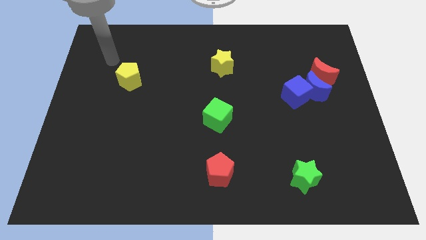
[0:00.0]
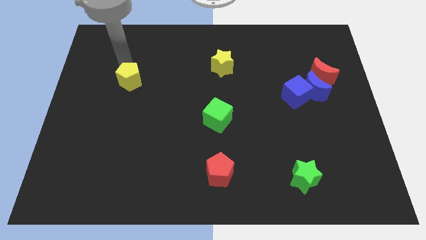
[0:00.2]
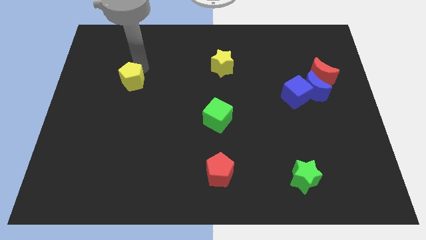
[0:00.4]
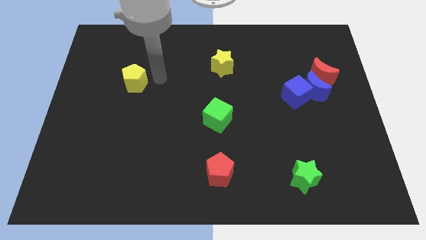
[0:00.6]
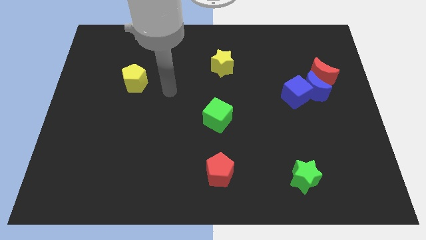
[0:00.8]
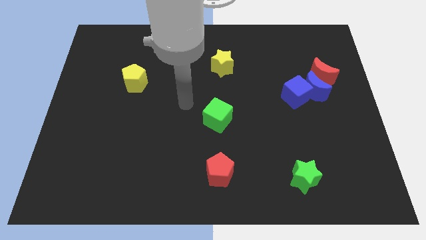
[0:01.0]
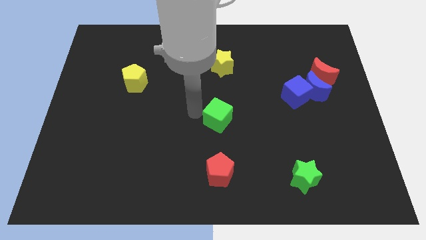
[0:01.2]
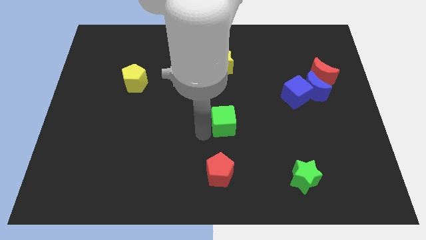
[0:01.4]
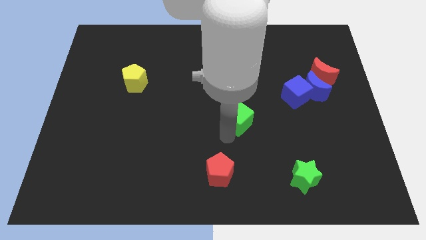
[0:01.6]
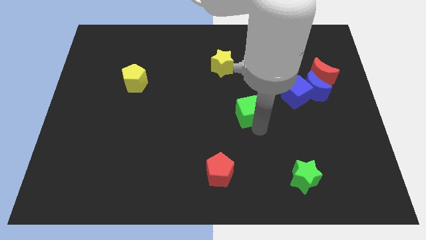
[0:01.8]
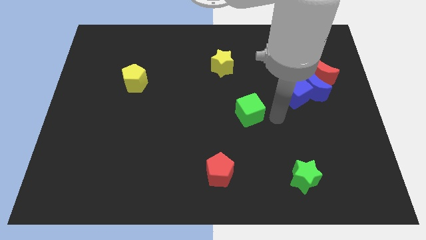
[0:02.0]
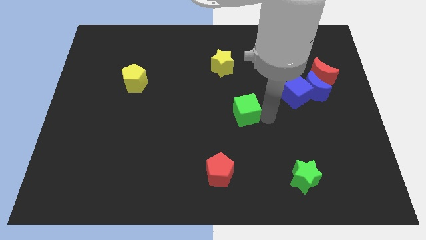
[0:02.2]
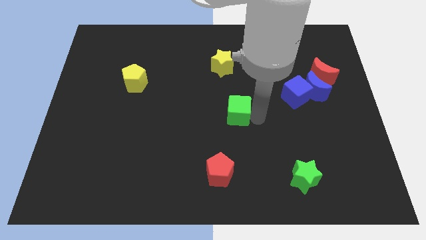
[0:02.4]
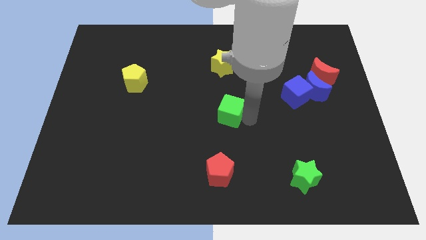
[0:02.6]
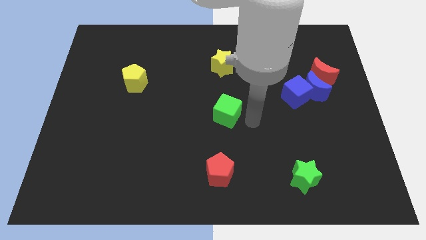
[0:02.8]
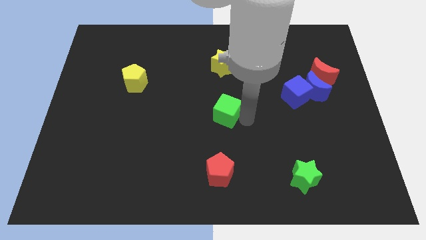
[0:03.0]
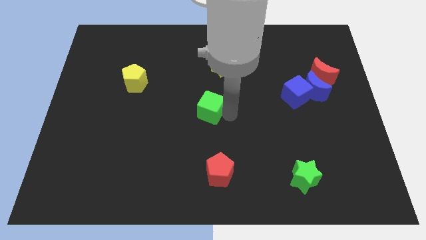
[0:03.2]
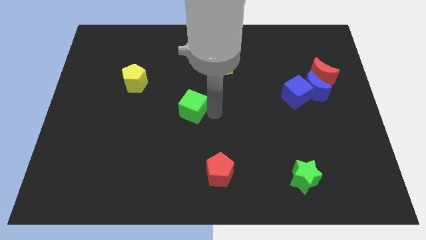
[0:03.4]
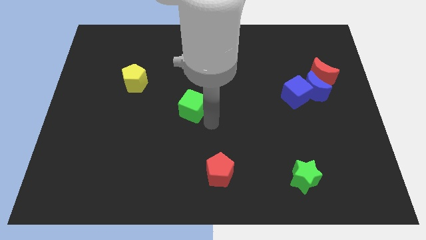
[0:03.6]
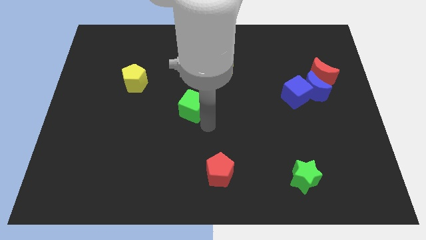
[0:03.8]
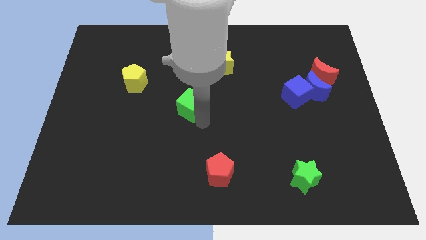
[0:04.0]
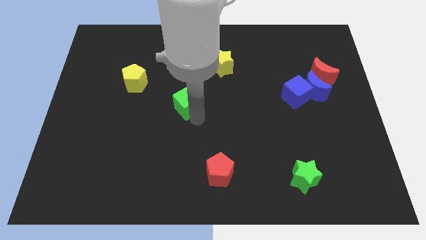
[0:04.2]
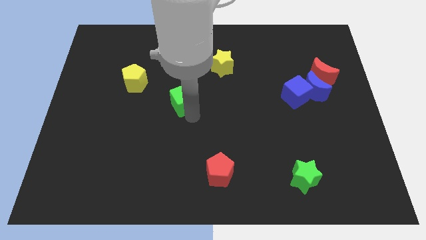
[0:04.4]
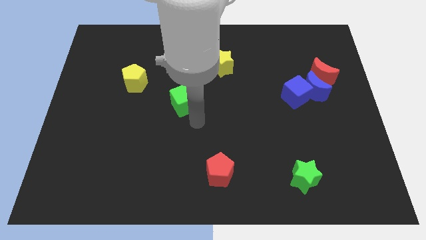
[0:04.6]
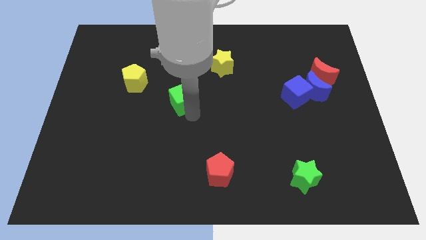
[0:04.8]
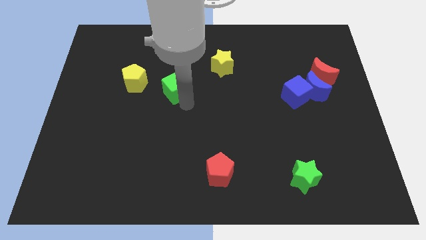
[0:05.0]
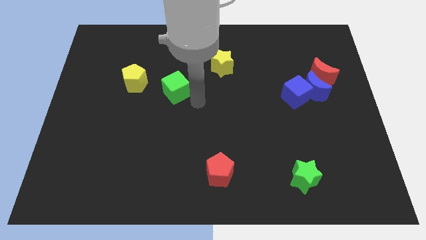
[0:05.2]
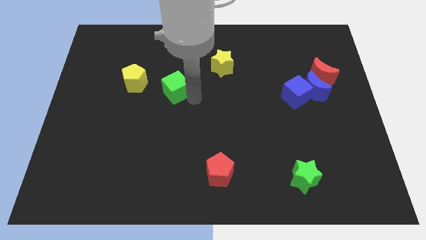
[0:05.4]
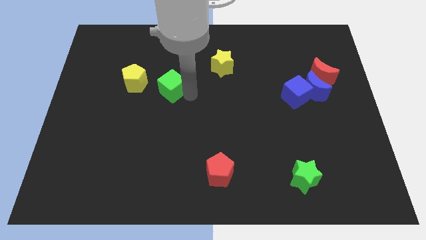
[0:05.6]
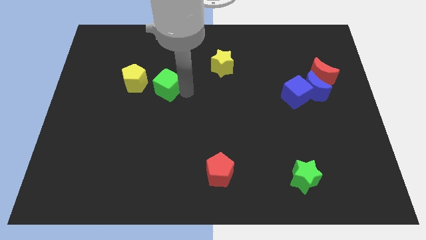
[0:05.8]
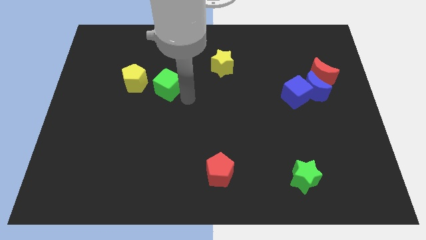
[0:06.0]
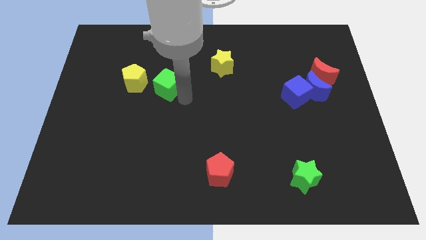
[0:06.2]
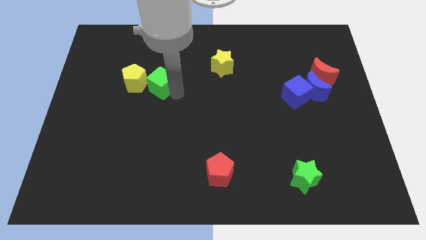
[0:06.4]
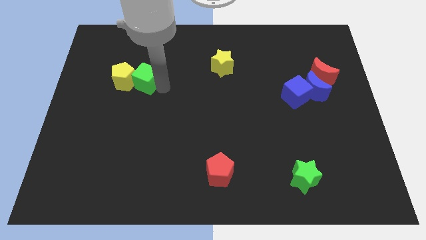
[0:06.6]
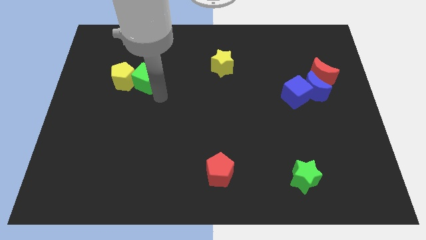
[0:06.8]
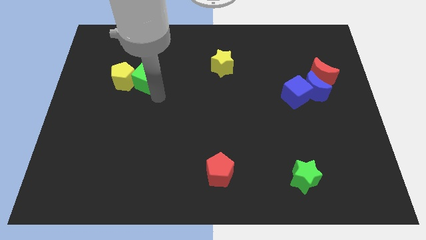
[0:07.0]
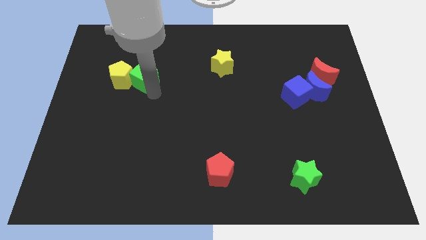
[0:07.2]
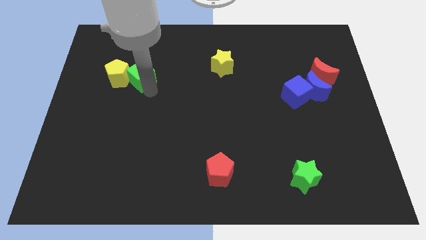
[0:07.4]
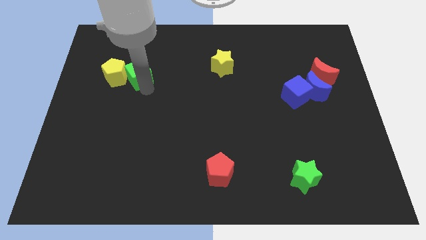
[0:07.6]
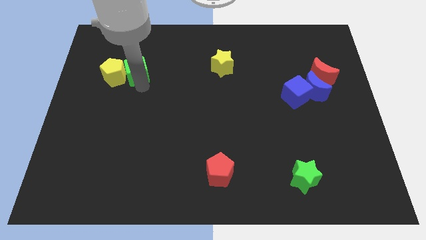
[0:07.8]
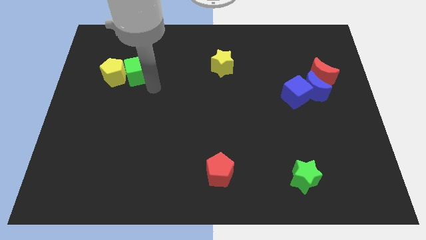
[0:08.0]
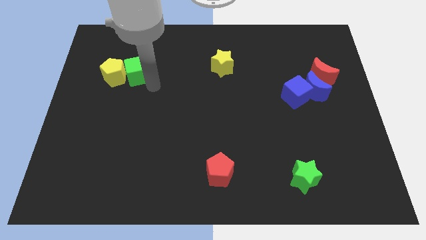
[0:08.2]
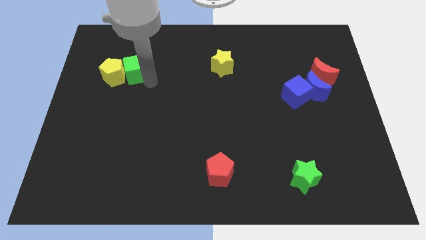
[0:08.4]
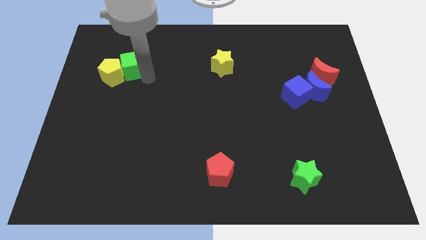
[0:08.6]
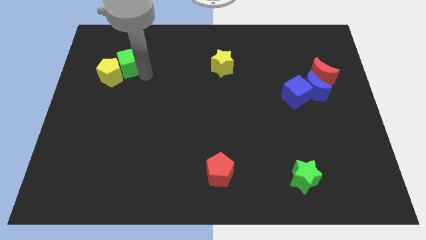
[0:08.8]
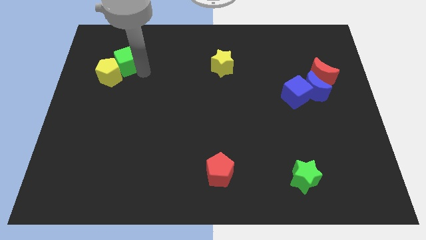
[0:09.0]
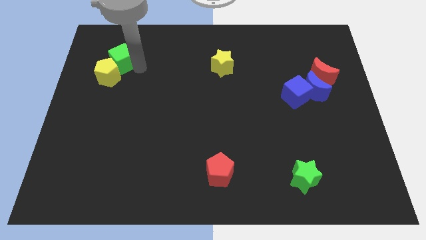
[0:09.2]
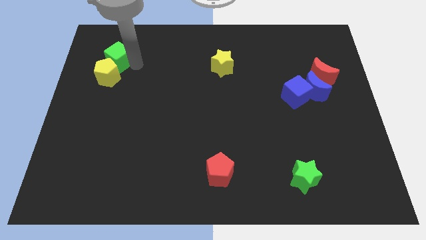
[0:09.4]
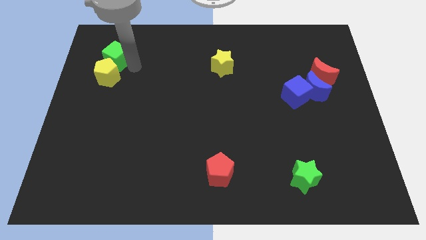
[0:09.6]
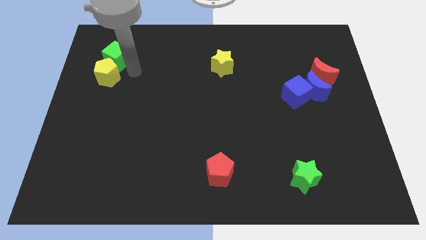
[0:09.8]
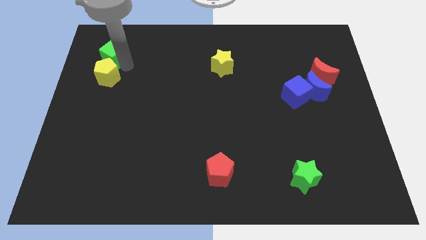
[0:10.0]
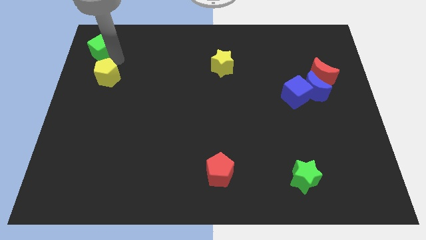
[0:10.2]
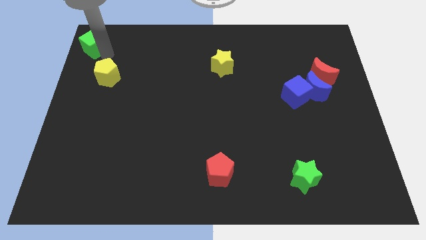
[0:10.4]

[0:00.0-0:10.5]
move the green cube to the top left of the board
